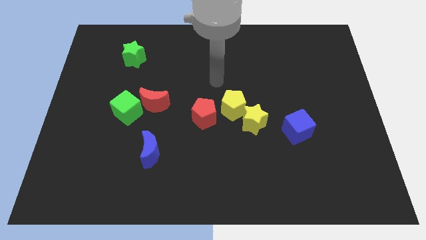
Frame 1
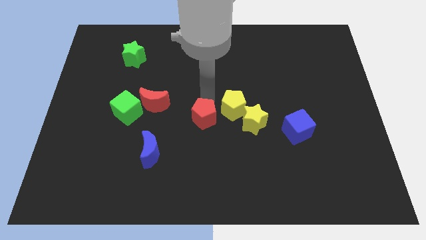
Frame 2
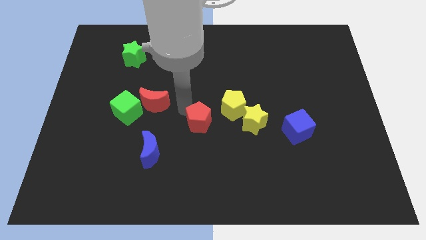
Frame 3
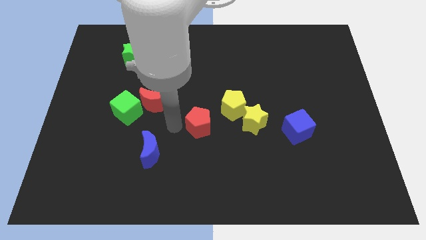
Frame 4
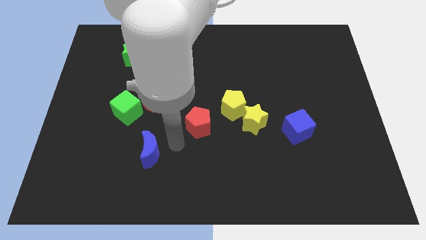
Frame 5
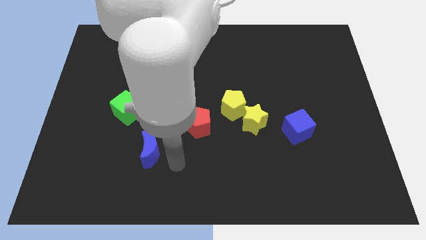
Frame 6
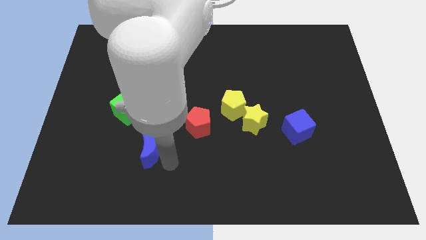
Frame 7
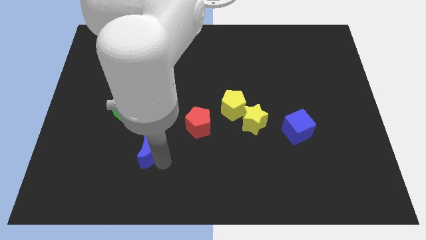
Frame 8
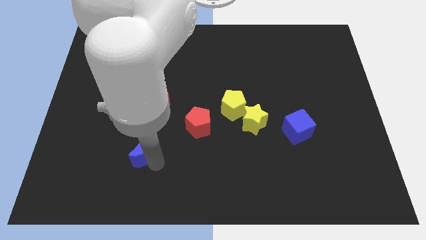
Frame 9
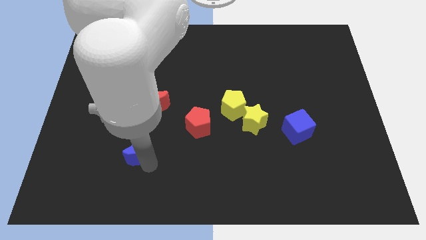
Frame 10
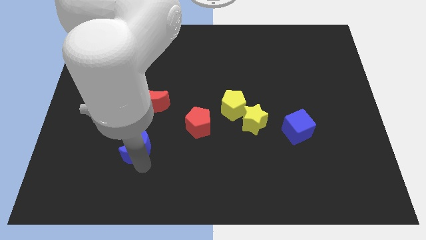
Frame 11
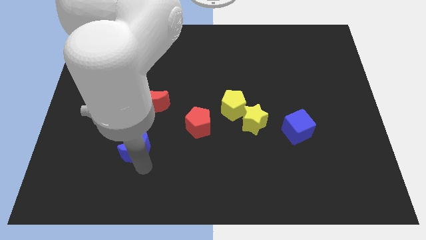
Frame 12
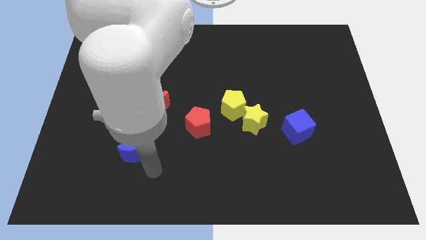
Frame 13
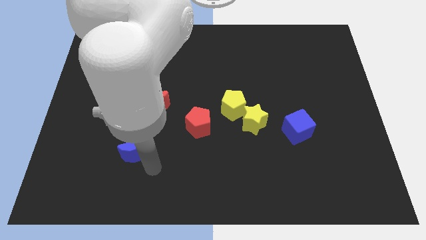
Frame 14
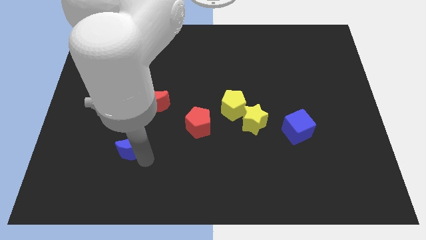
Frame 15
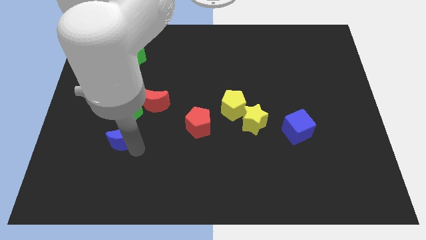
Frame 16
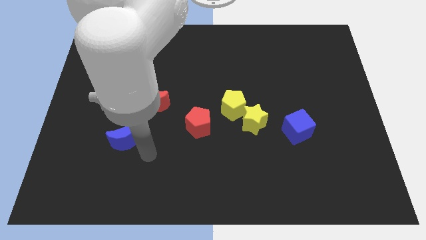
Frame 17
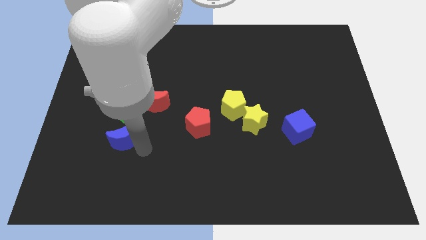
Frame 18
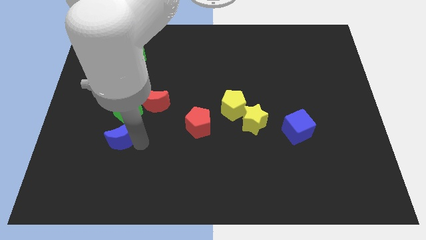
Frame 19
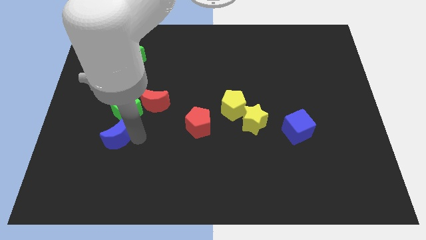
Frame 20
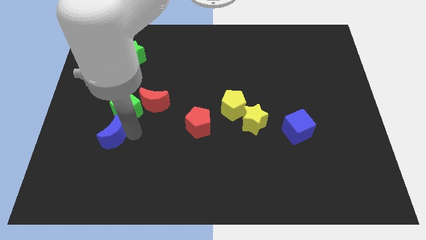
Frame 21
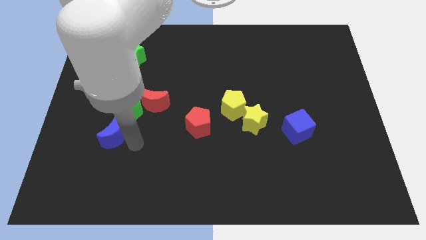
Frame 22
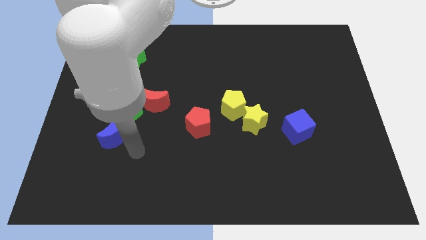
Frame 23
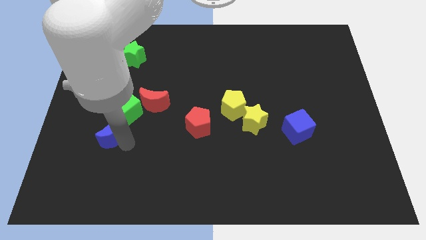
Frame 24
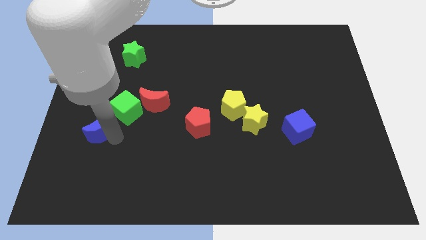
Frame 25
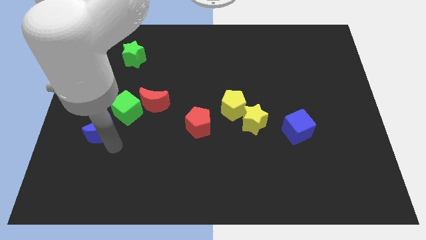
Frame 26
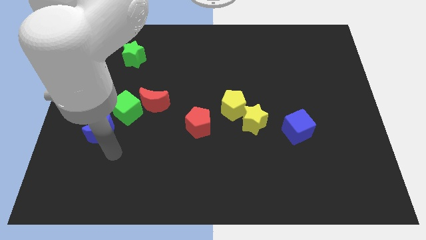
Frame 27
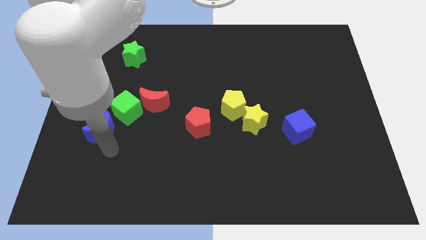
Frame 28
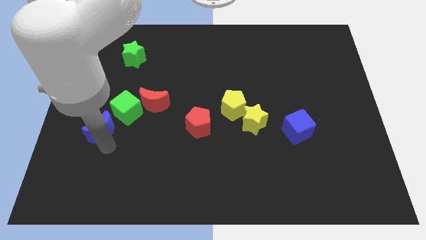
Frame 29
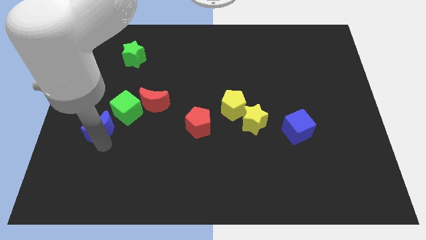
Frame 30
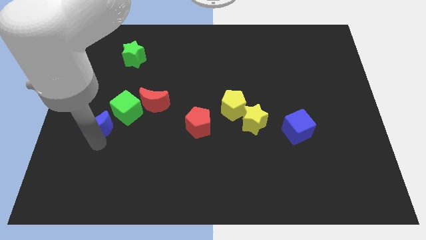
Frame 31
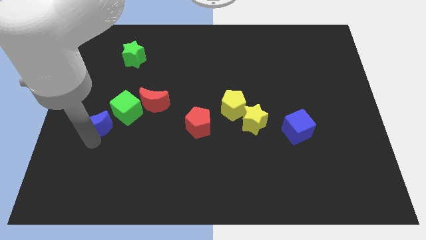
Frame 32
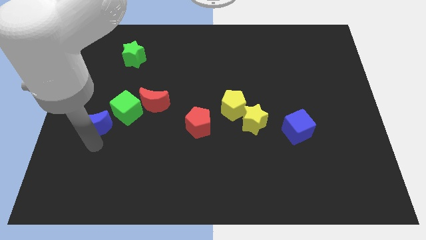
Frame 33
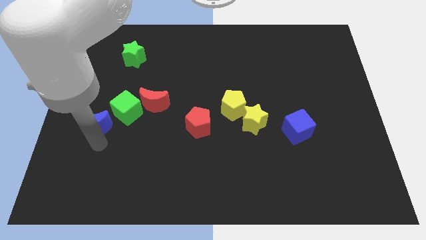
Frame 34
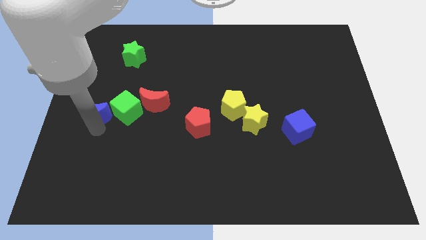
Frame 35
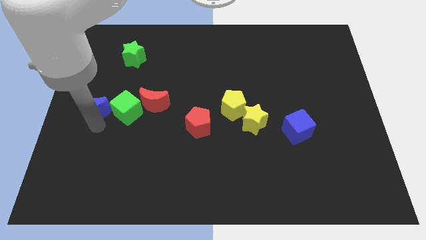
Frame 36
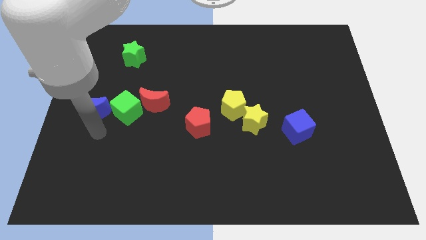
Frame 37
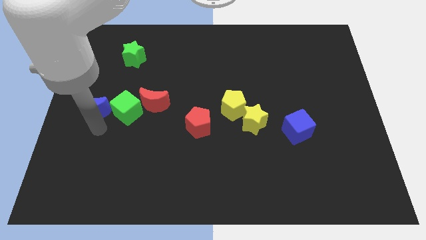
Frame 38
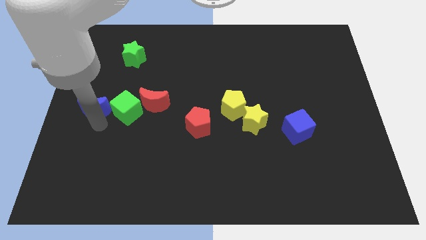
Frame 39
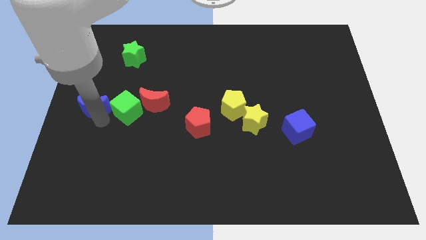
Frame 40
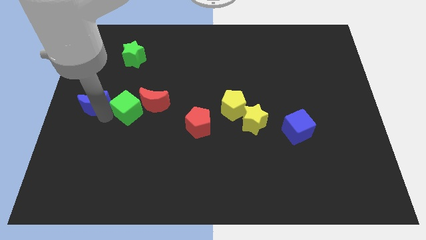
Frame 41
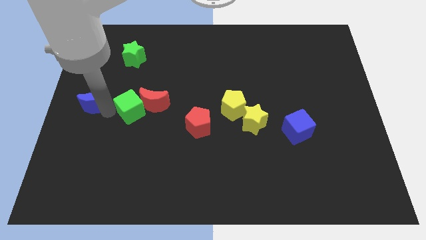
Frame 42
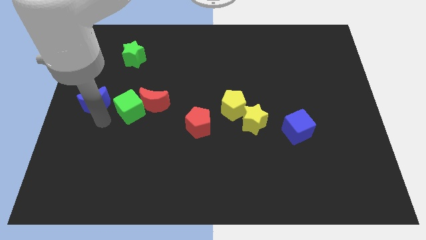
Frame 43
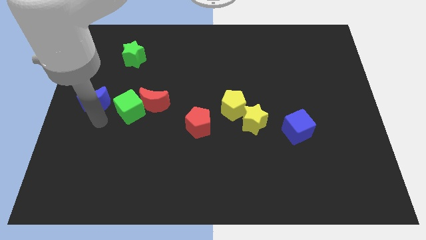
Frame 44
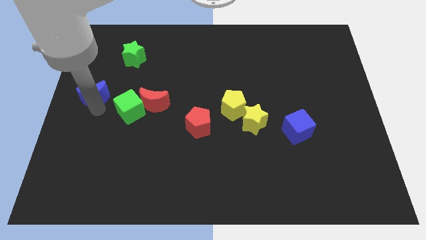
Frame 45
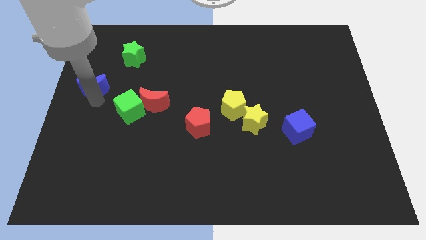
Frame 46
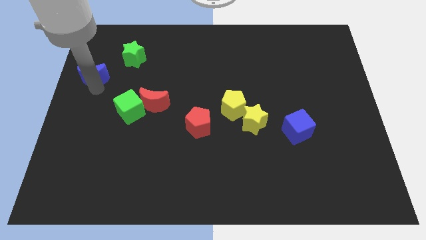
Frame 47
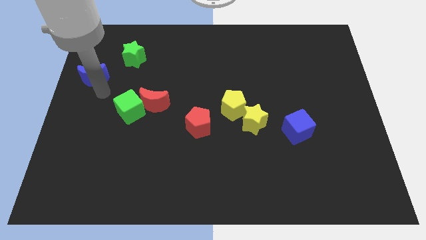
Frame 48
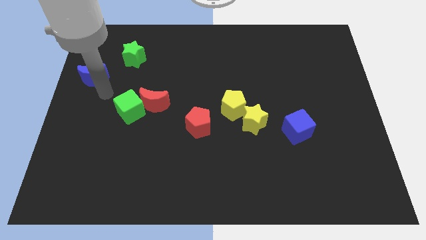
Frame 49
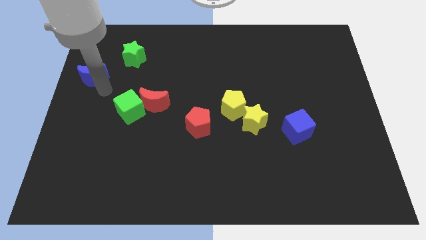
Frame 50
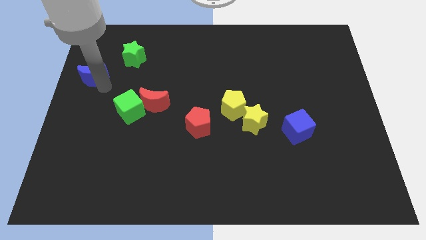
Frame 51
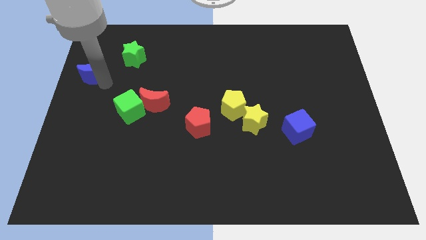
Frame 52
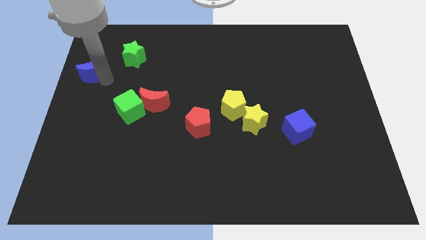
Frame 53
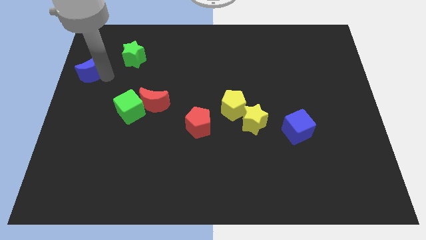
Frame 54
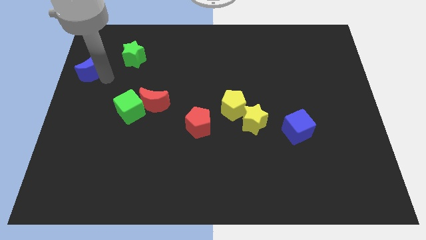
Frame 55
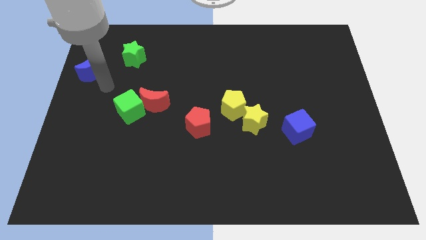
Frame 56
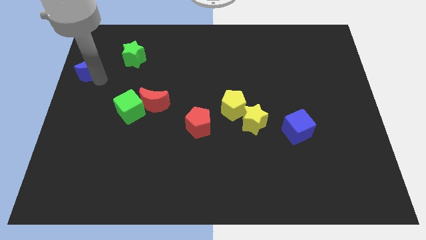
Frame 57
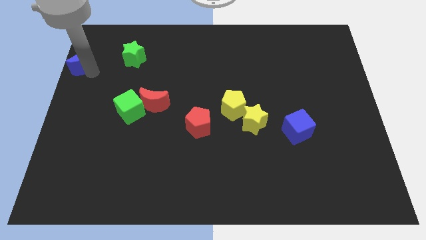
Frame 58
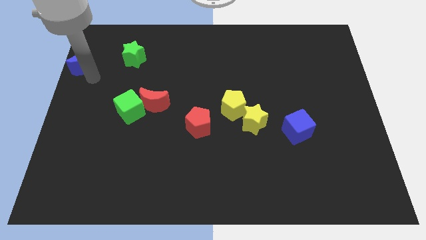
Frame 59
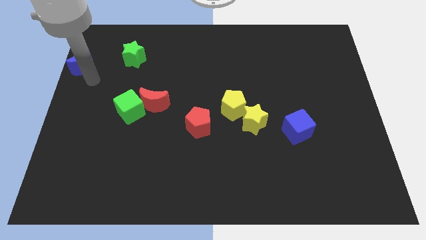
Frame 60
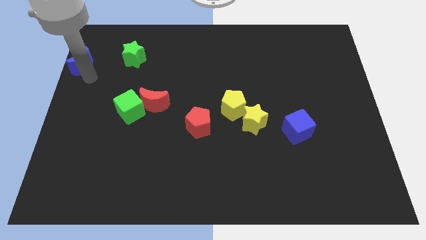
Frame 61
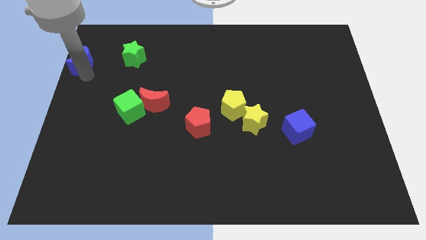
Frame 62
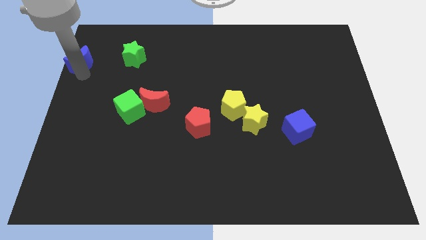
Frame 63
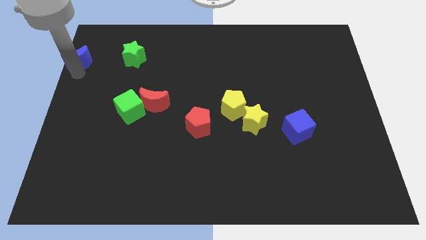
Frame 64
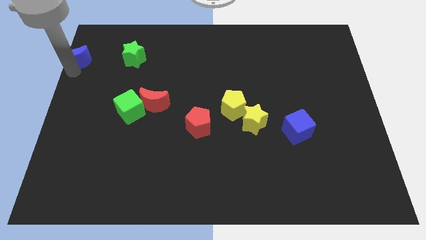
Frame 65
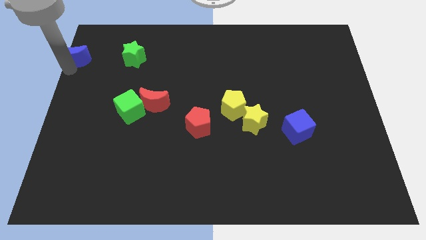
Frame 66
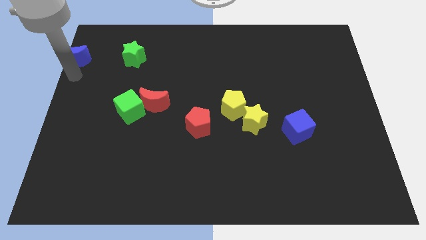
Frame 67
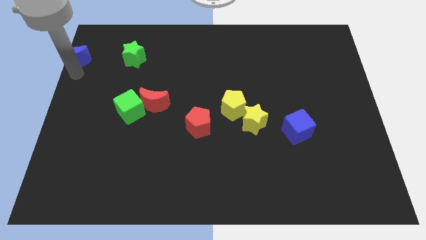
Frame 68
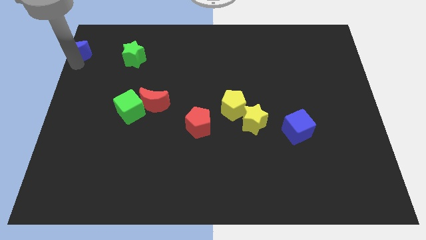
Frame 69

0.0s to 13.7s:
push the blue moon to the top left
